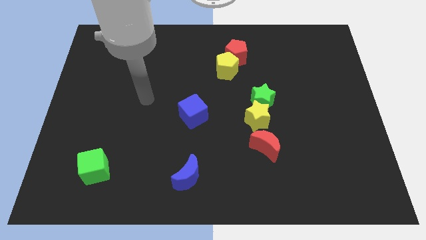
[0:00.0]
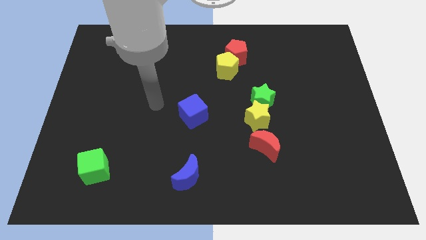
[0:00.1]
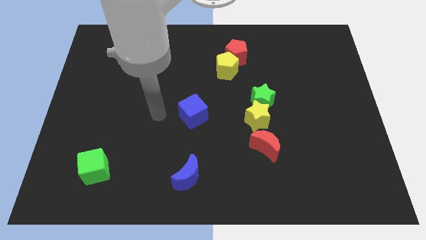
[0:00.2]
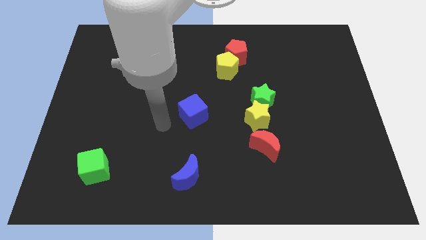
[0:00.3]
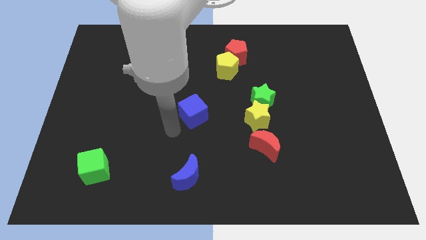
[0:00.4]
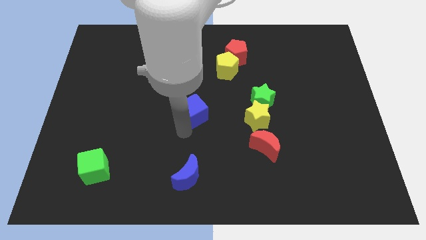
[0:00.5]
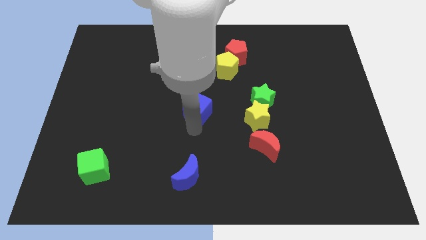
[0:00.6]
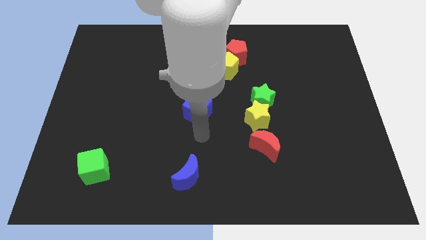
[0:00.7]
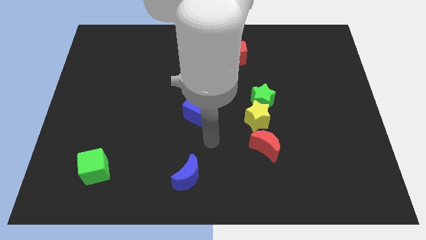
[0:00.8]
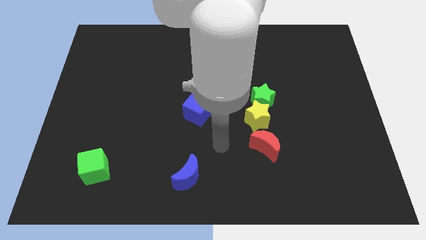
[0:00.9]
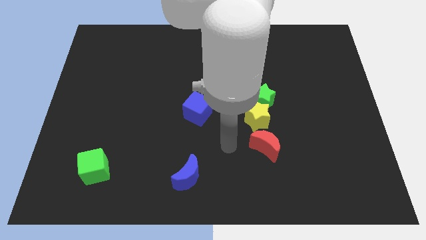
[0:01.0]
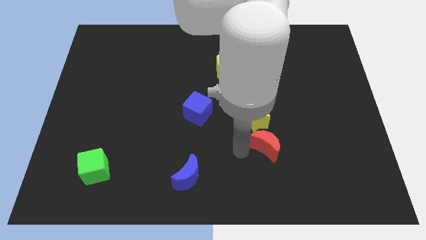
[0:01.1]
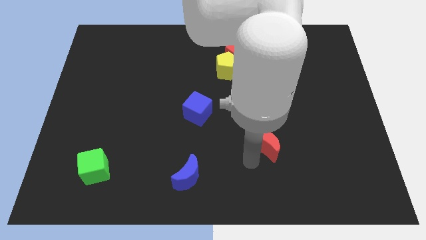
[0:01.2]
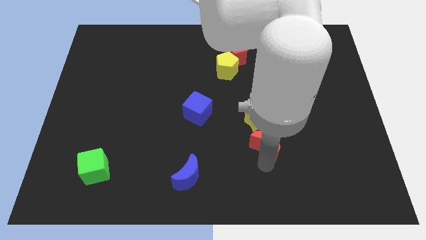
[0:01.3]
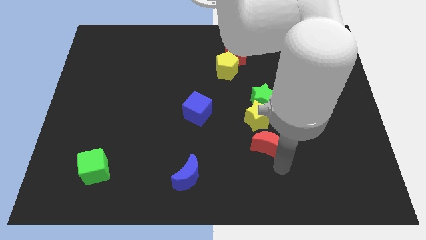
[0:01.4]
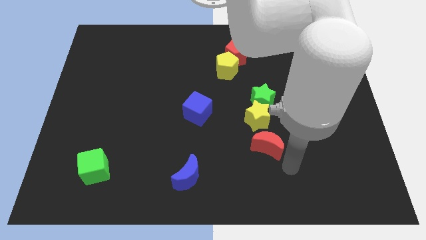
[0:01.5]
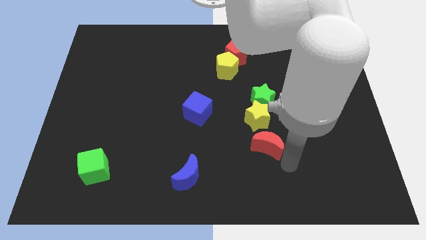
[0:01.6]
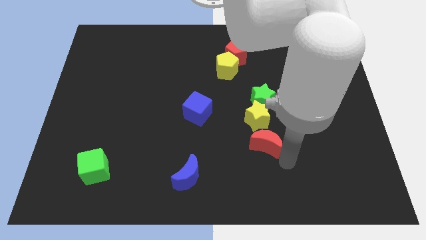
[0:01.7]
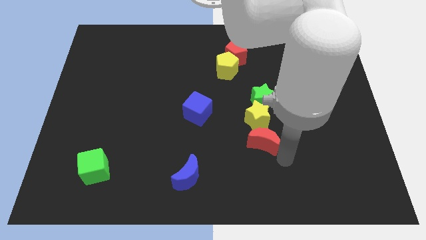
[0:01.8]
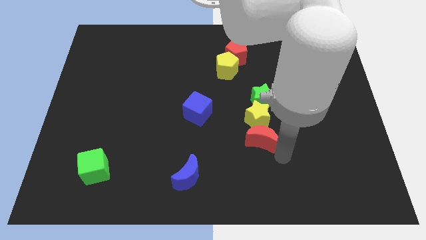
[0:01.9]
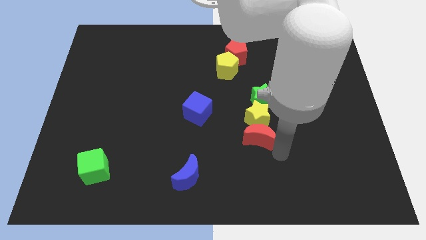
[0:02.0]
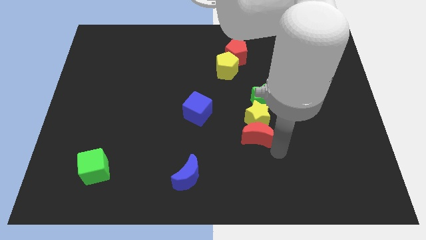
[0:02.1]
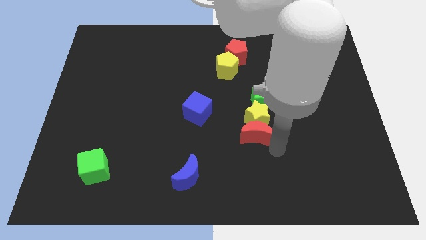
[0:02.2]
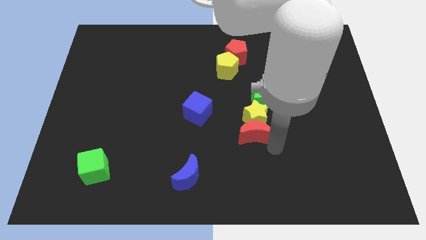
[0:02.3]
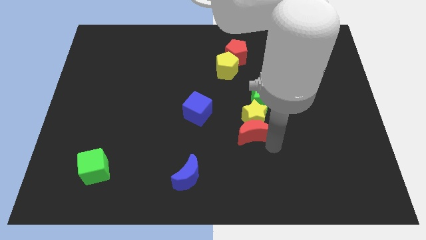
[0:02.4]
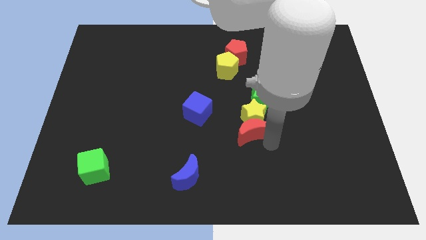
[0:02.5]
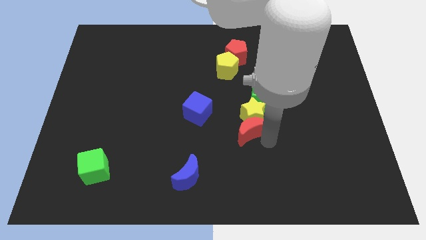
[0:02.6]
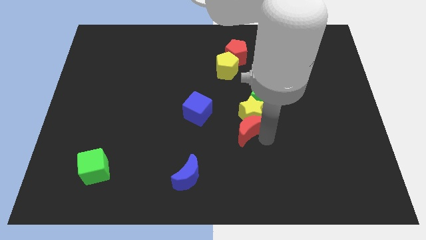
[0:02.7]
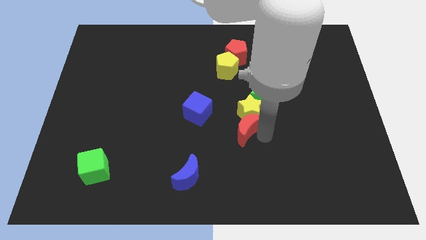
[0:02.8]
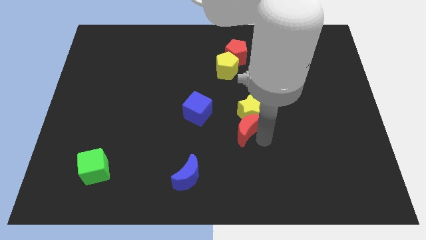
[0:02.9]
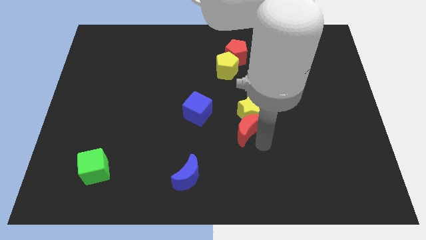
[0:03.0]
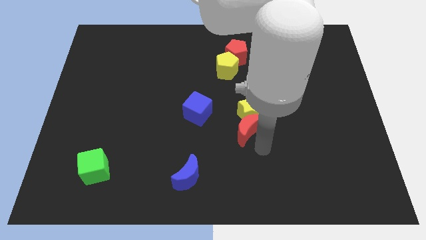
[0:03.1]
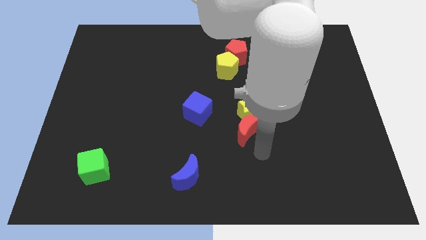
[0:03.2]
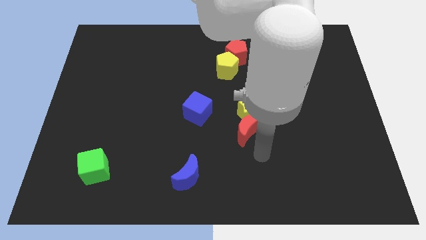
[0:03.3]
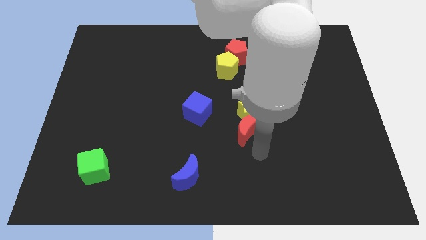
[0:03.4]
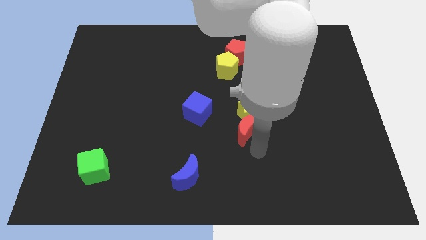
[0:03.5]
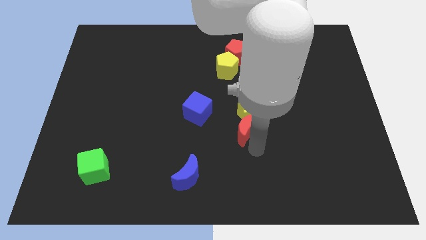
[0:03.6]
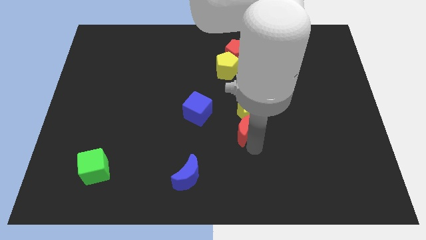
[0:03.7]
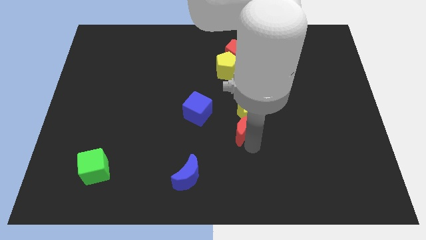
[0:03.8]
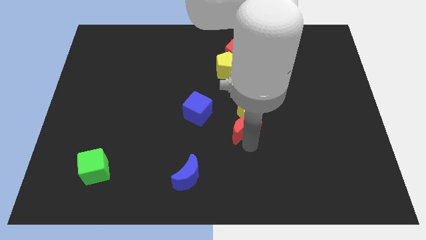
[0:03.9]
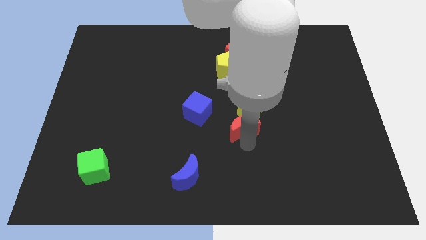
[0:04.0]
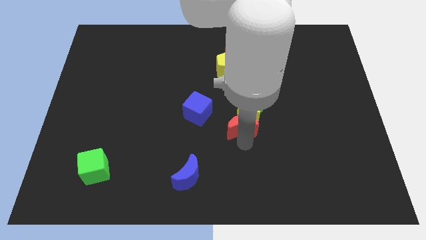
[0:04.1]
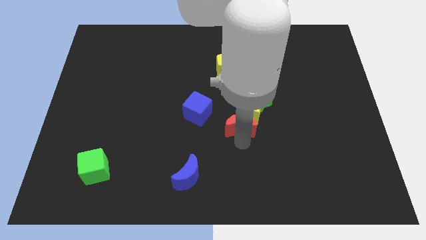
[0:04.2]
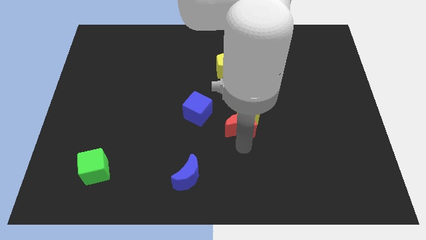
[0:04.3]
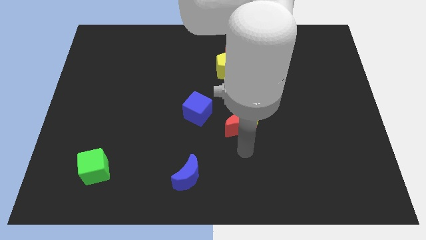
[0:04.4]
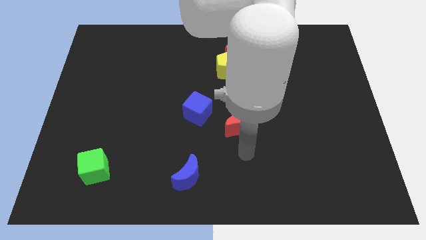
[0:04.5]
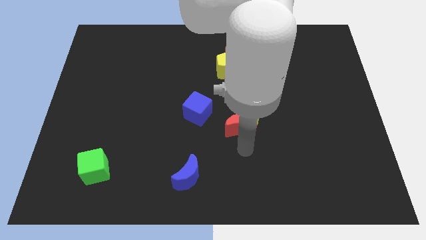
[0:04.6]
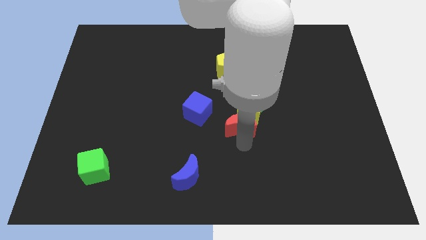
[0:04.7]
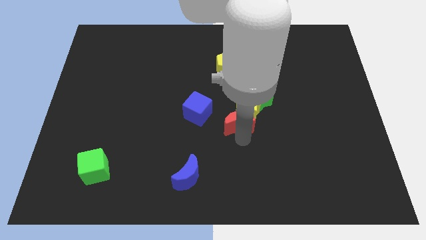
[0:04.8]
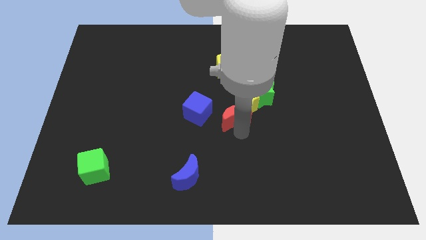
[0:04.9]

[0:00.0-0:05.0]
move the red moon to the bottom of the yellow pentagon

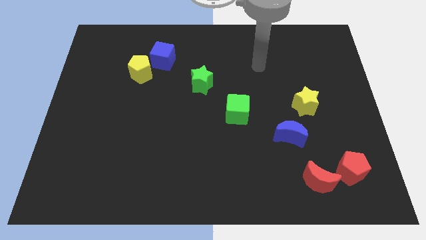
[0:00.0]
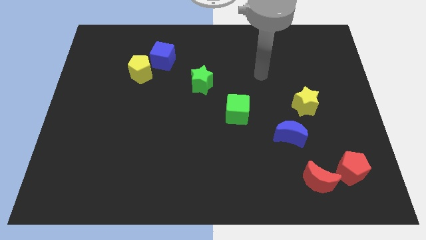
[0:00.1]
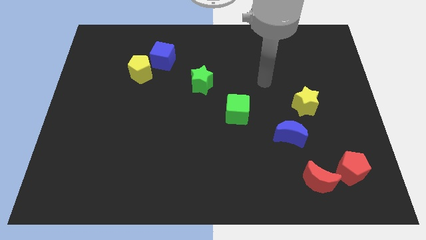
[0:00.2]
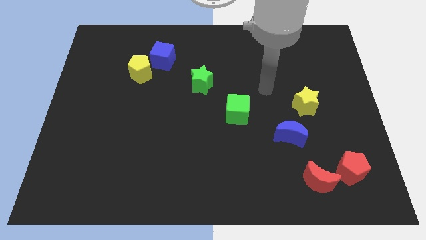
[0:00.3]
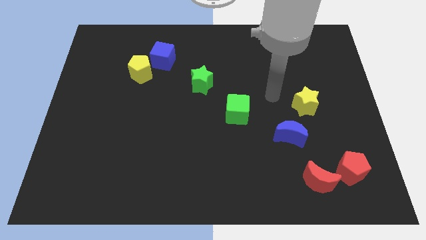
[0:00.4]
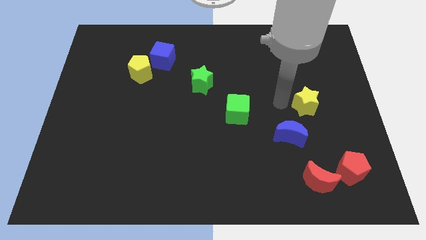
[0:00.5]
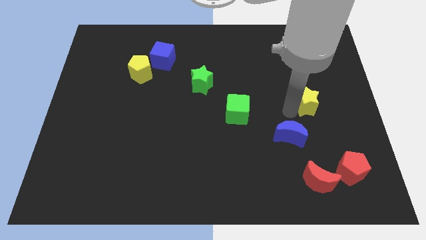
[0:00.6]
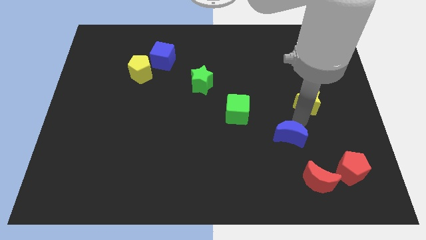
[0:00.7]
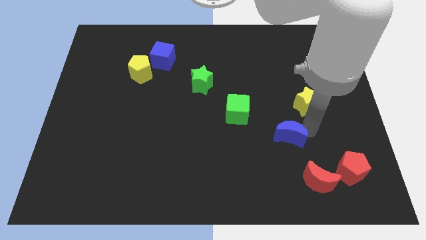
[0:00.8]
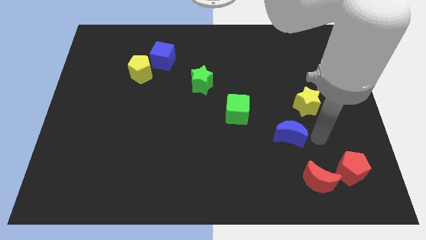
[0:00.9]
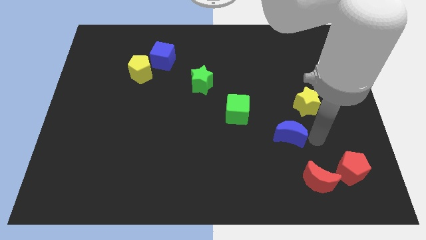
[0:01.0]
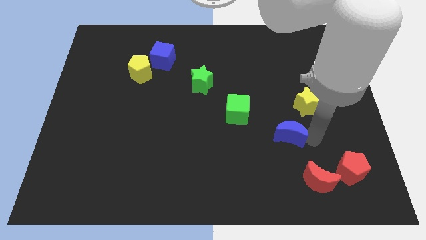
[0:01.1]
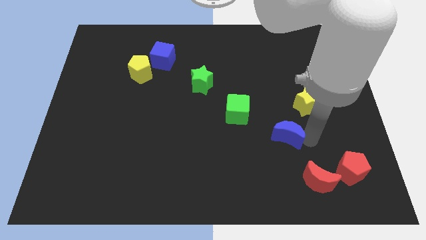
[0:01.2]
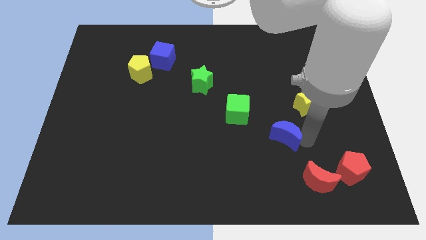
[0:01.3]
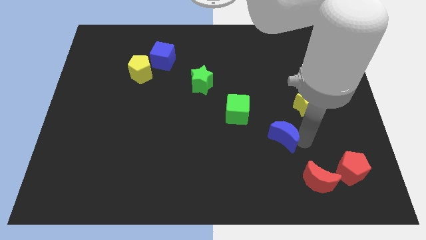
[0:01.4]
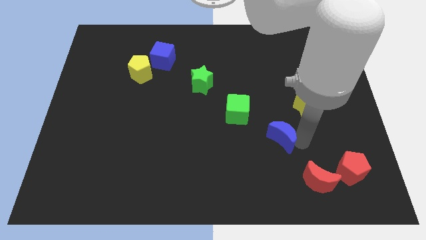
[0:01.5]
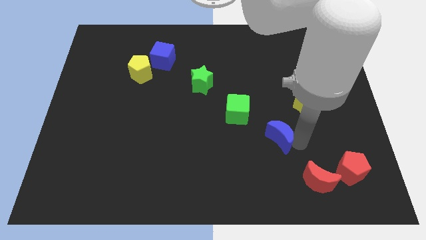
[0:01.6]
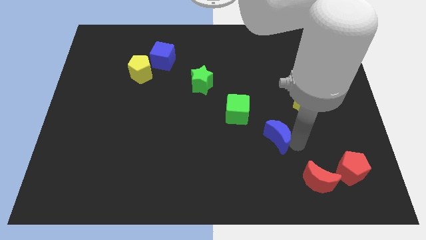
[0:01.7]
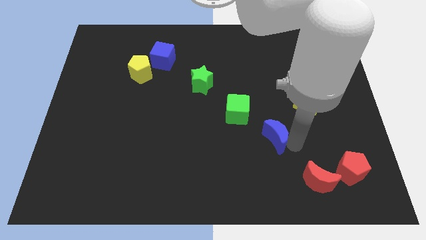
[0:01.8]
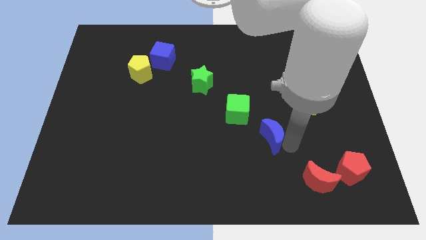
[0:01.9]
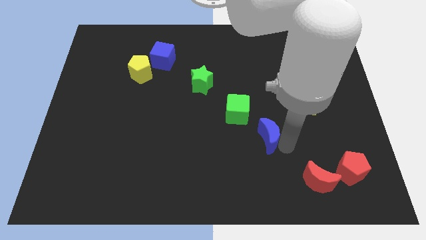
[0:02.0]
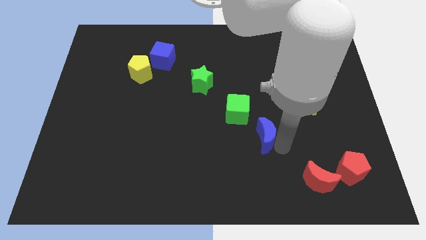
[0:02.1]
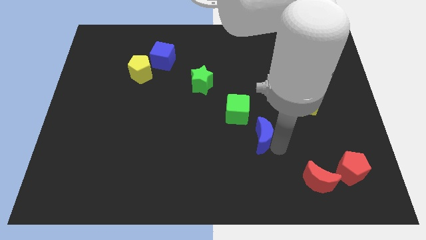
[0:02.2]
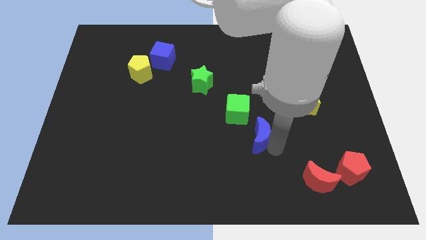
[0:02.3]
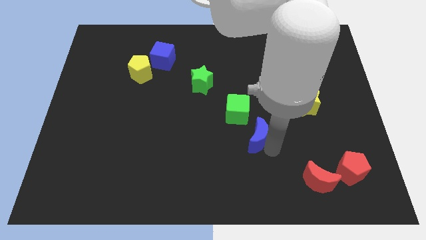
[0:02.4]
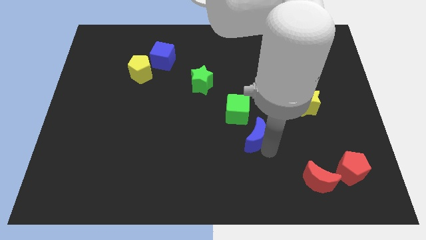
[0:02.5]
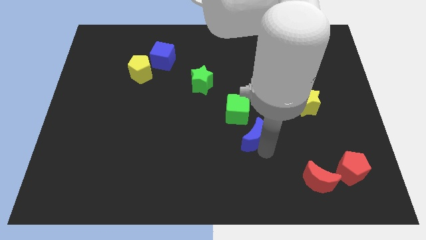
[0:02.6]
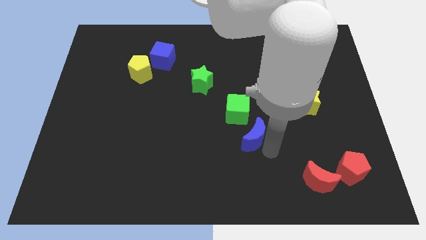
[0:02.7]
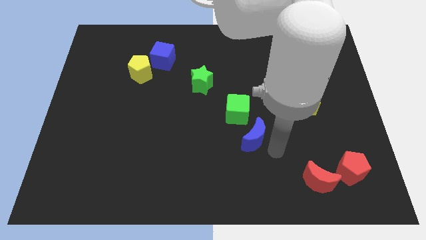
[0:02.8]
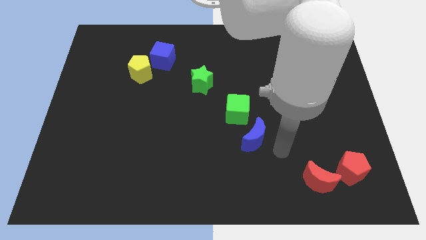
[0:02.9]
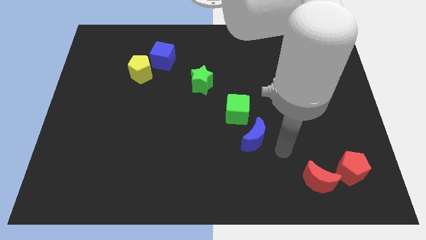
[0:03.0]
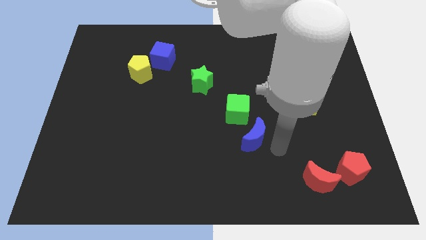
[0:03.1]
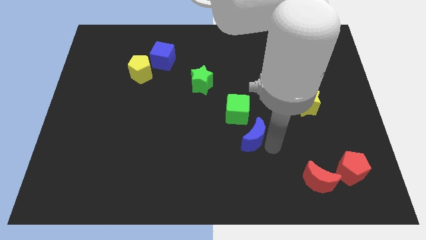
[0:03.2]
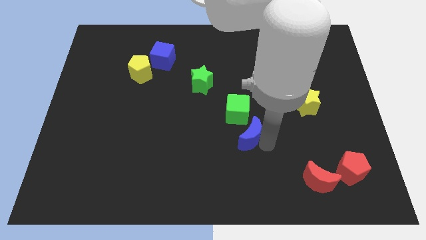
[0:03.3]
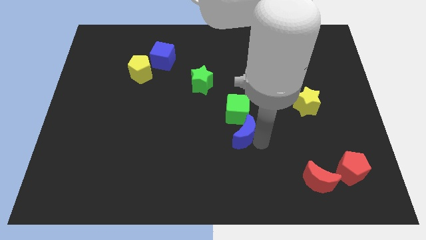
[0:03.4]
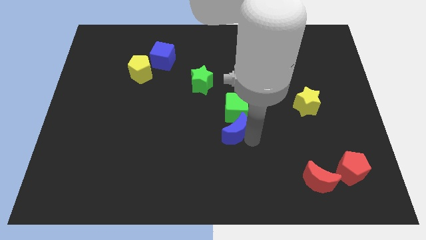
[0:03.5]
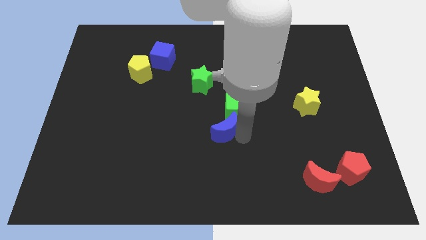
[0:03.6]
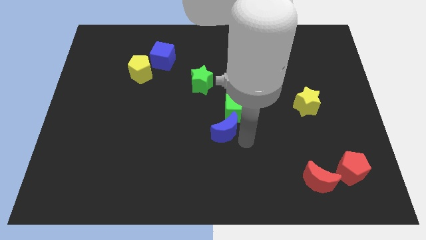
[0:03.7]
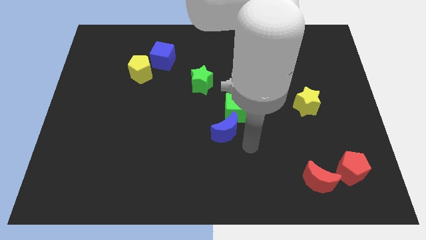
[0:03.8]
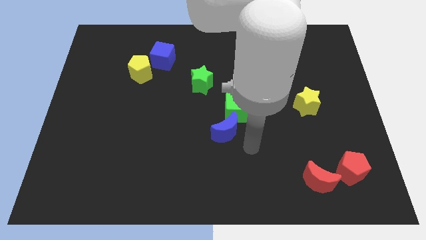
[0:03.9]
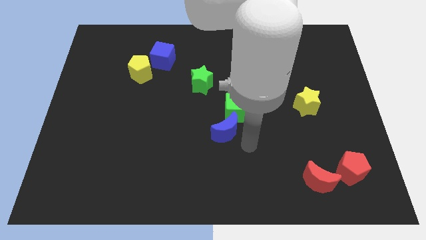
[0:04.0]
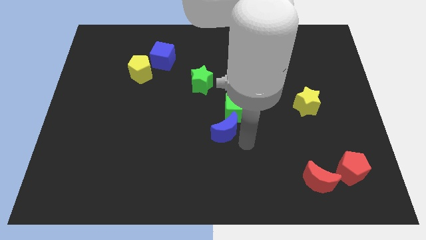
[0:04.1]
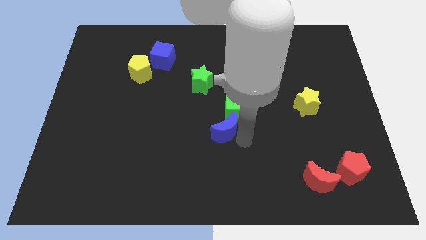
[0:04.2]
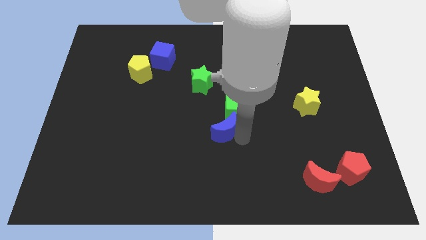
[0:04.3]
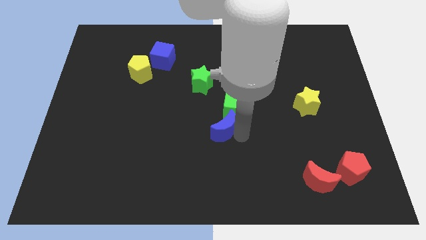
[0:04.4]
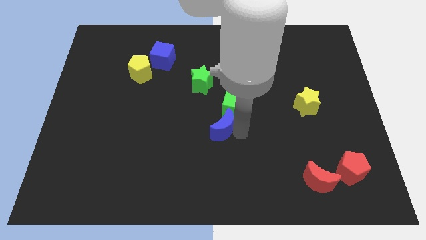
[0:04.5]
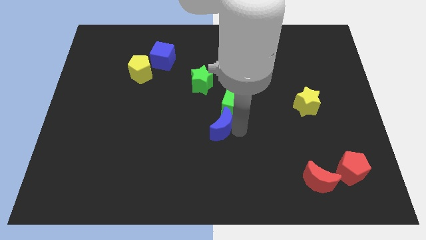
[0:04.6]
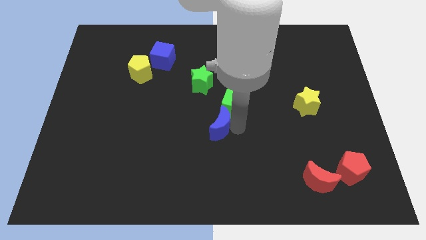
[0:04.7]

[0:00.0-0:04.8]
put the blue moon below the green star
